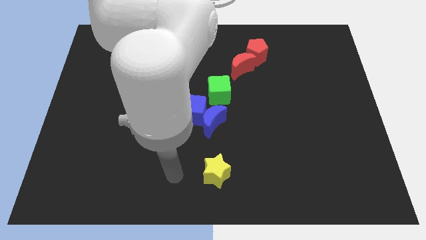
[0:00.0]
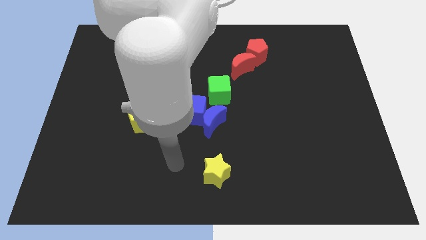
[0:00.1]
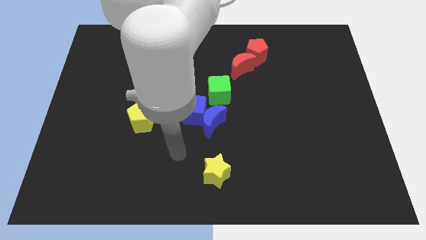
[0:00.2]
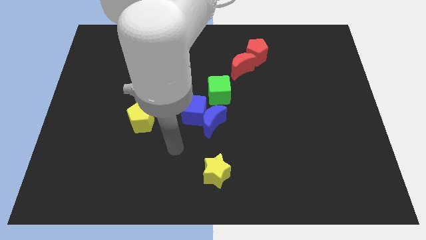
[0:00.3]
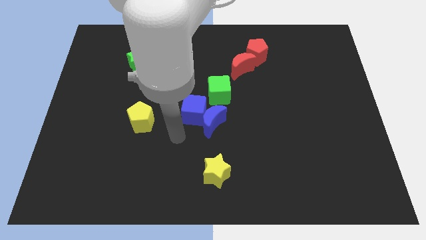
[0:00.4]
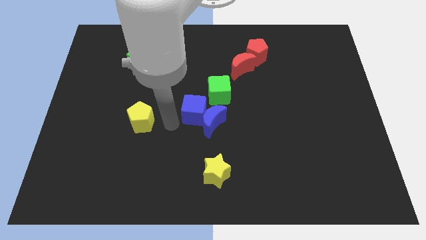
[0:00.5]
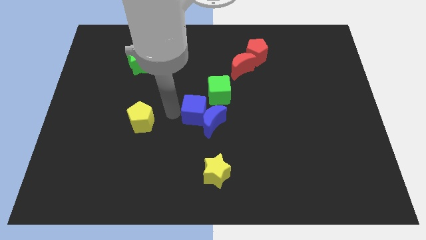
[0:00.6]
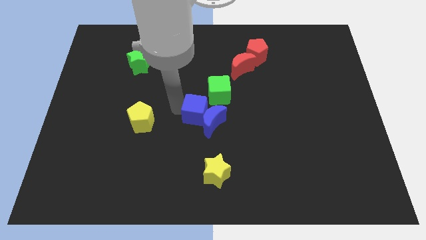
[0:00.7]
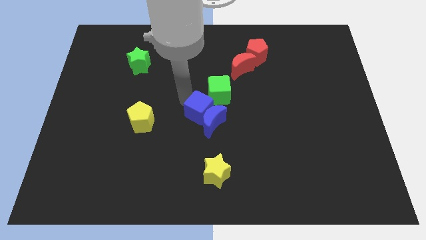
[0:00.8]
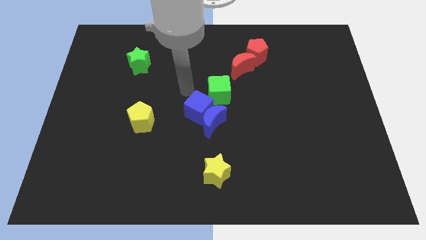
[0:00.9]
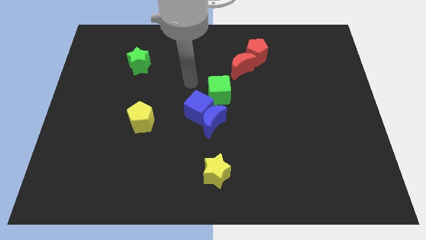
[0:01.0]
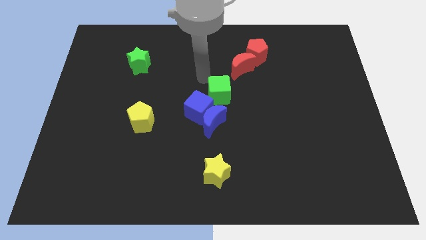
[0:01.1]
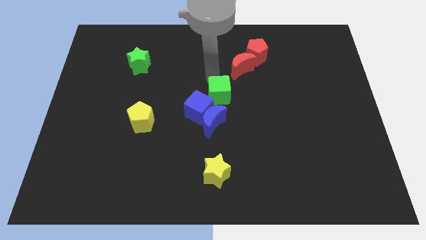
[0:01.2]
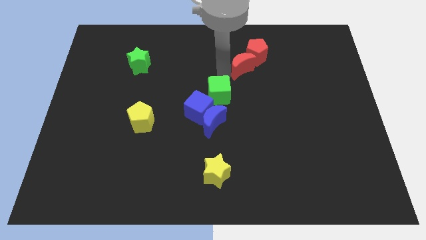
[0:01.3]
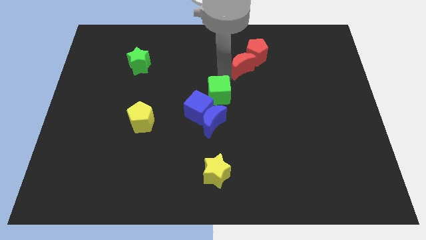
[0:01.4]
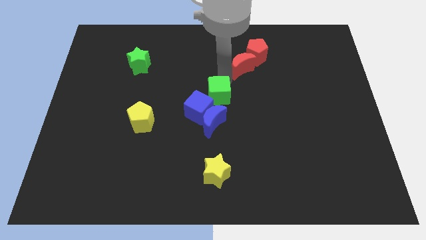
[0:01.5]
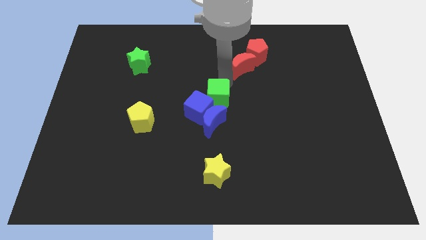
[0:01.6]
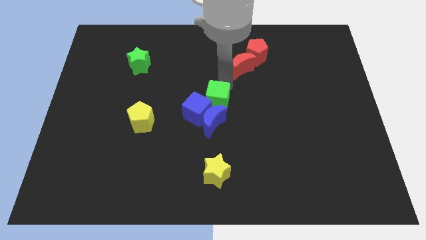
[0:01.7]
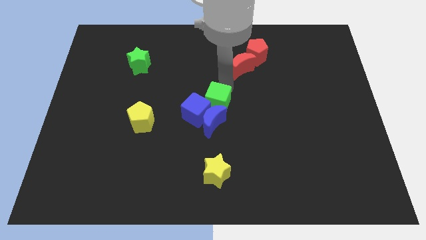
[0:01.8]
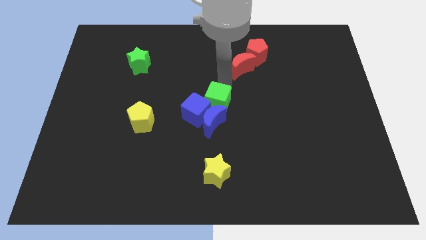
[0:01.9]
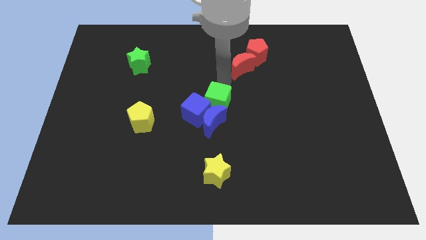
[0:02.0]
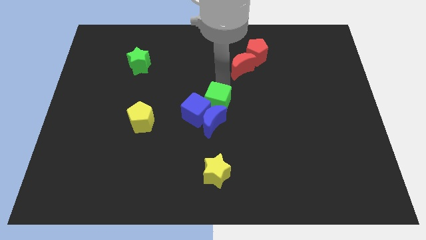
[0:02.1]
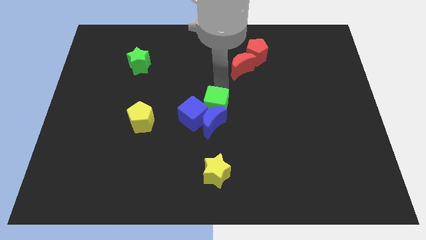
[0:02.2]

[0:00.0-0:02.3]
push the green cube close to the blue moon

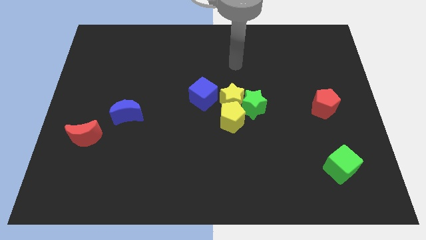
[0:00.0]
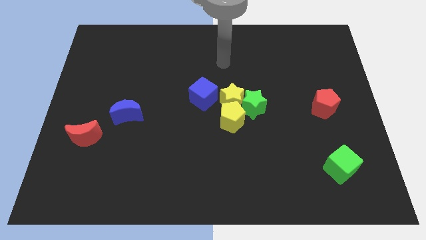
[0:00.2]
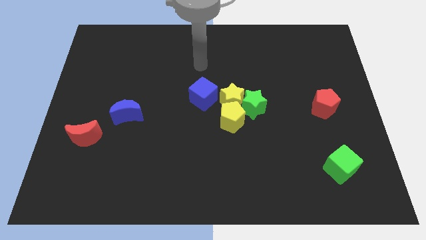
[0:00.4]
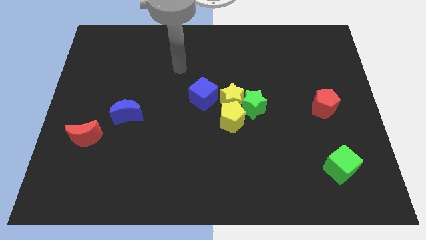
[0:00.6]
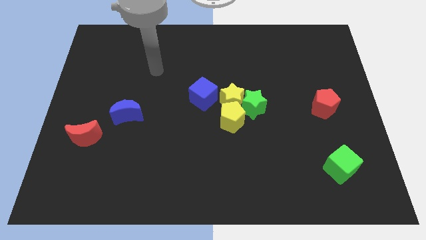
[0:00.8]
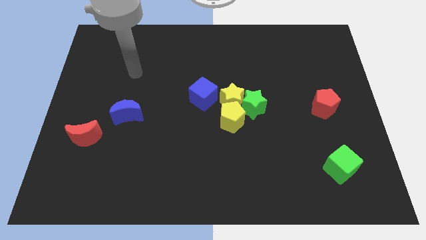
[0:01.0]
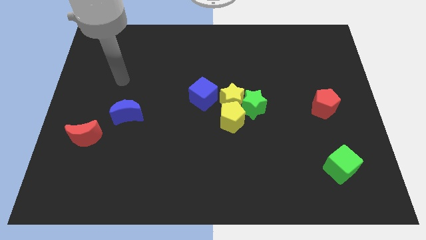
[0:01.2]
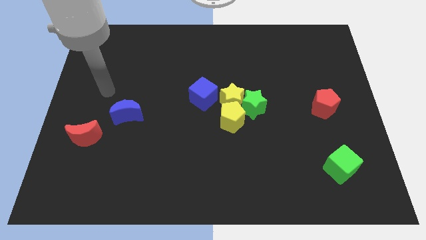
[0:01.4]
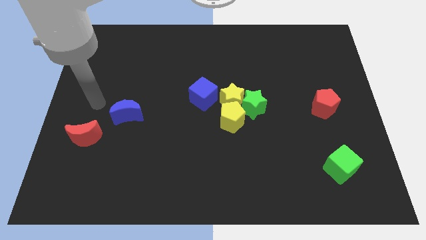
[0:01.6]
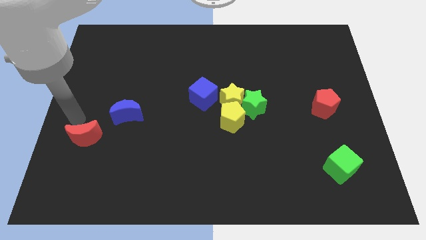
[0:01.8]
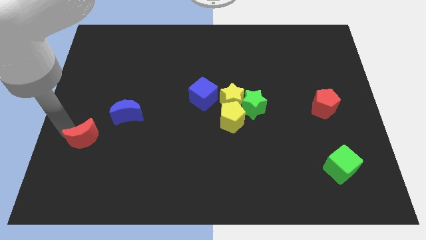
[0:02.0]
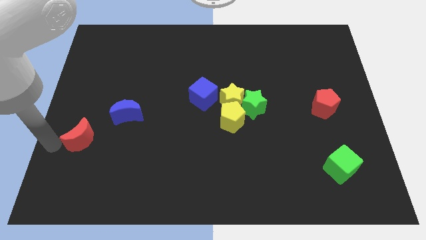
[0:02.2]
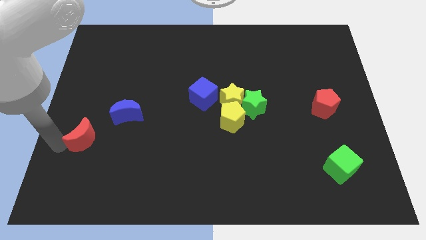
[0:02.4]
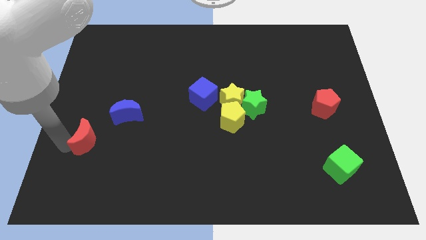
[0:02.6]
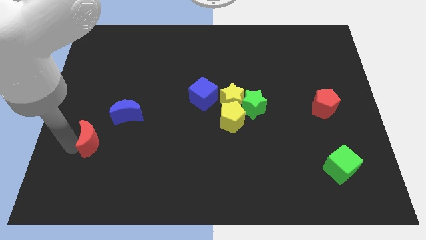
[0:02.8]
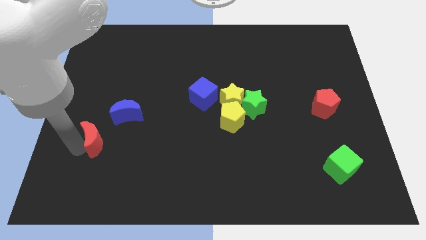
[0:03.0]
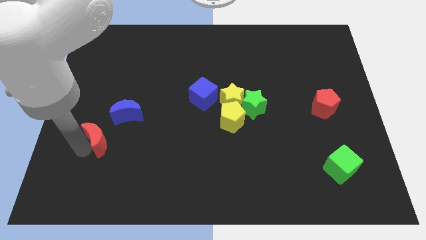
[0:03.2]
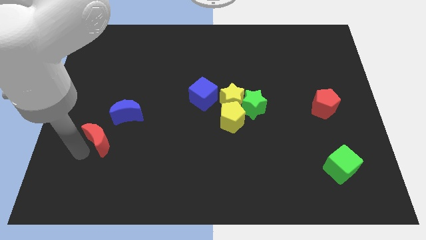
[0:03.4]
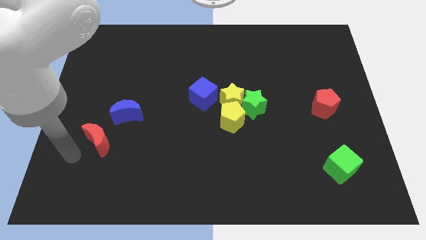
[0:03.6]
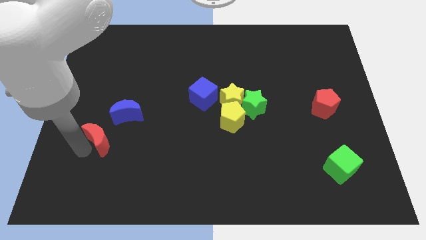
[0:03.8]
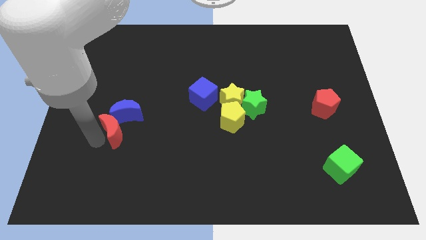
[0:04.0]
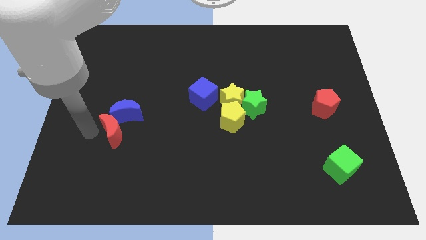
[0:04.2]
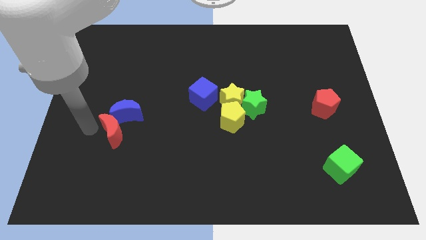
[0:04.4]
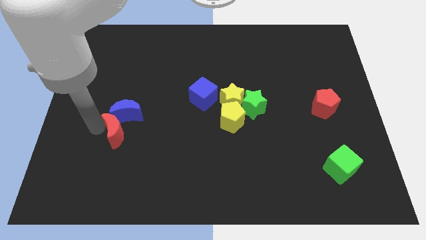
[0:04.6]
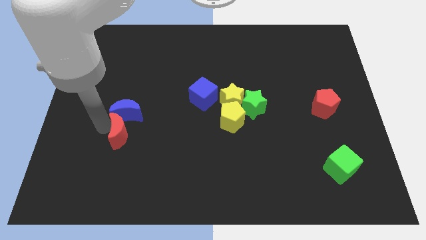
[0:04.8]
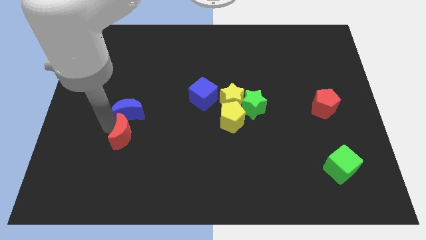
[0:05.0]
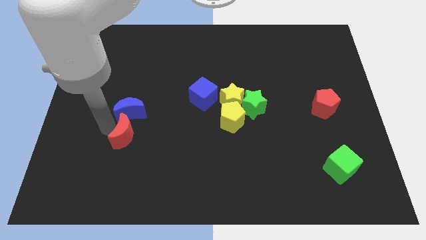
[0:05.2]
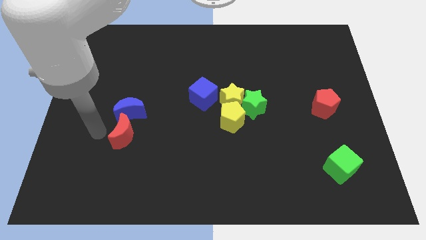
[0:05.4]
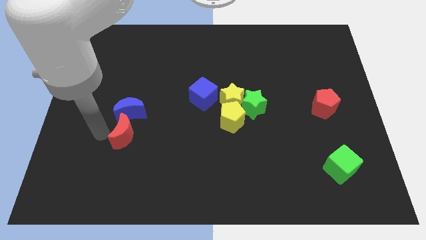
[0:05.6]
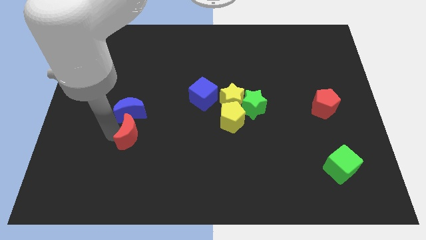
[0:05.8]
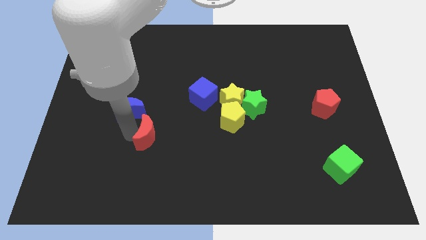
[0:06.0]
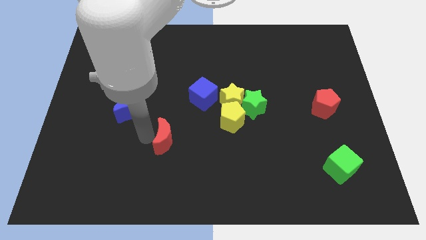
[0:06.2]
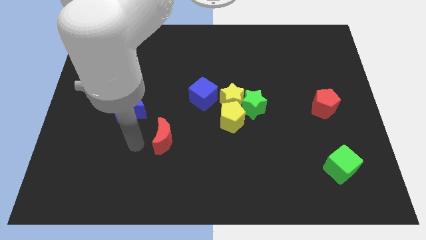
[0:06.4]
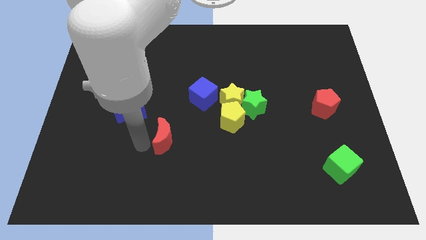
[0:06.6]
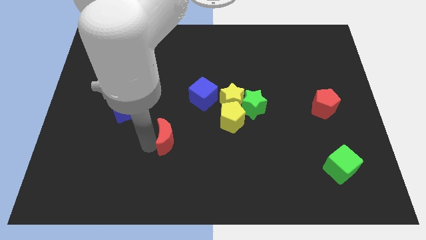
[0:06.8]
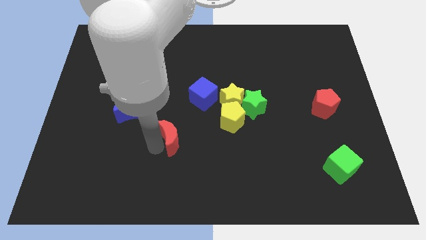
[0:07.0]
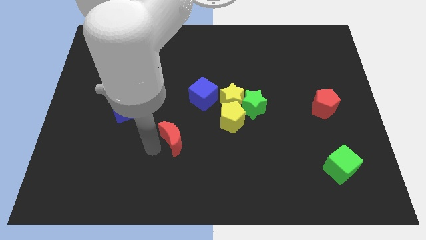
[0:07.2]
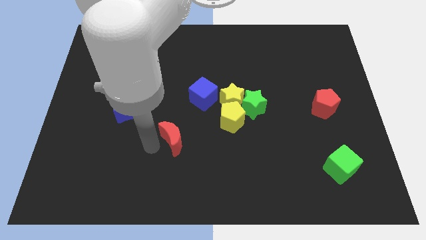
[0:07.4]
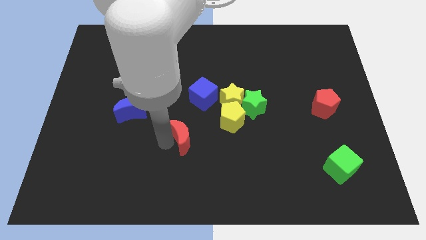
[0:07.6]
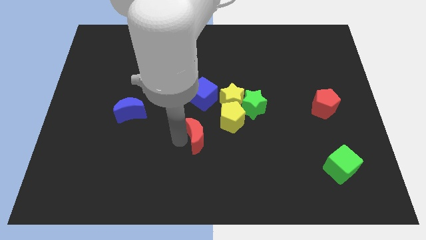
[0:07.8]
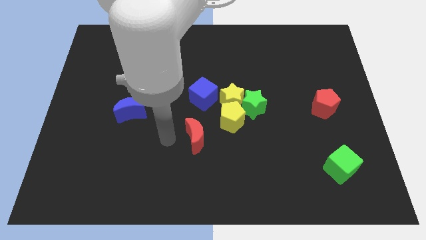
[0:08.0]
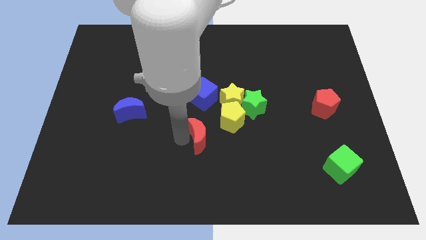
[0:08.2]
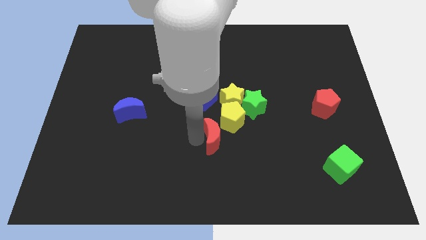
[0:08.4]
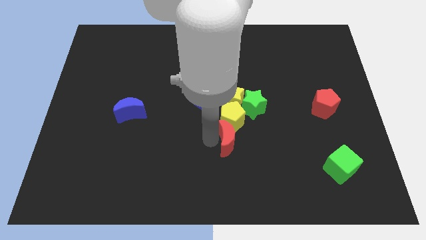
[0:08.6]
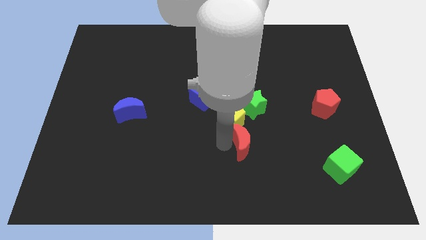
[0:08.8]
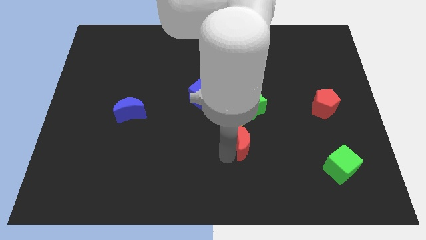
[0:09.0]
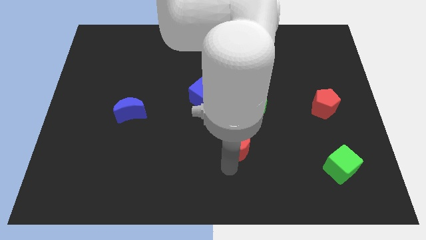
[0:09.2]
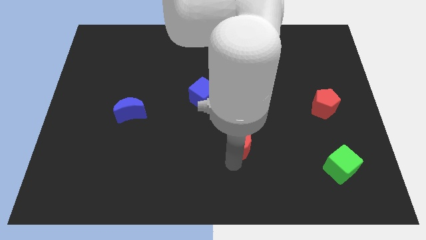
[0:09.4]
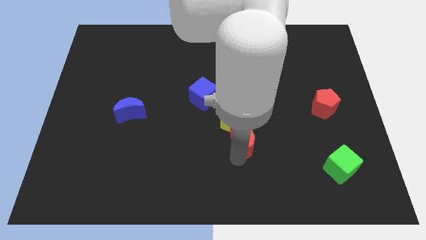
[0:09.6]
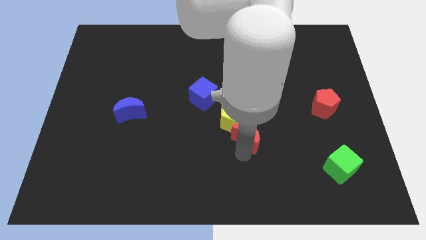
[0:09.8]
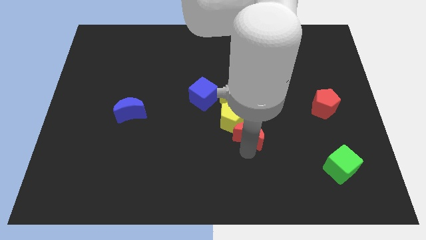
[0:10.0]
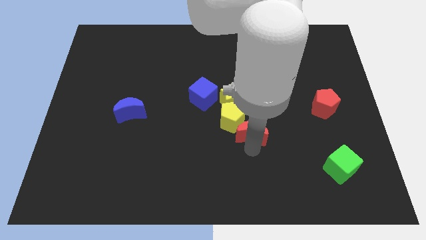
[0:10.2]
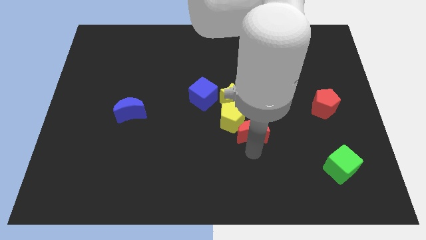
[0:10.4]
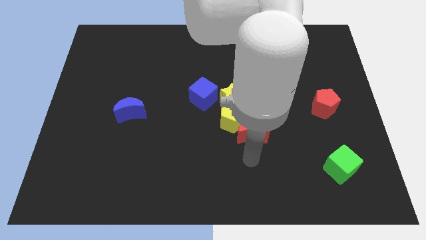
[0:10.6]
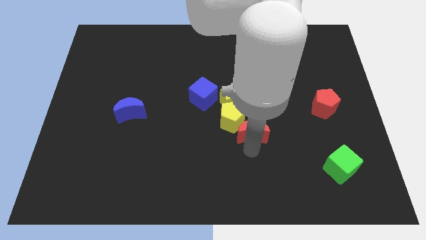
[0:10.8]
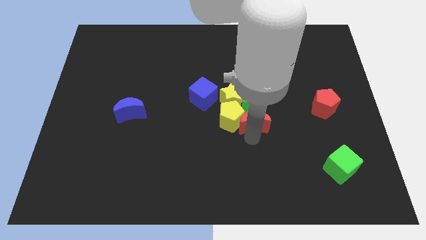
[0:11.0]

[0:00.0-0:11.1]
put the red moon next to the green star
